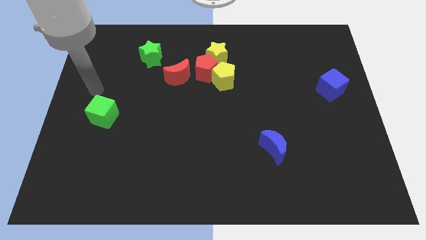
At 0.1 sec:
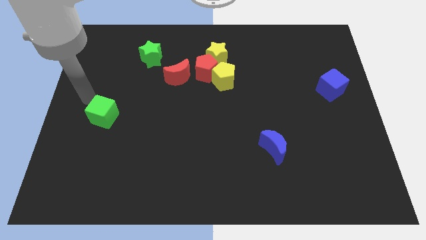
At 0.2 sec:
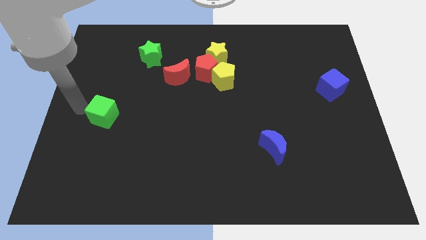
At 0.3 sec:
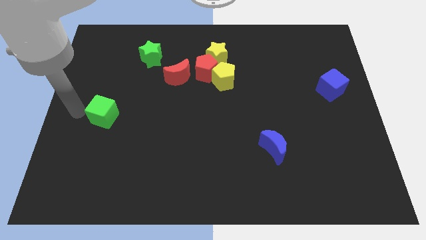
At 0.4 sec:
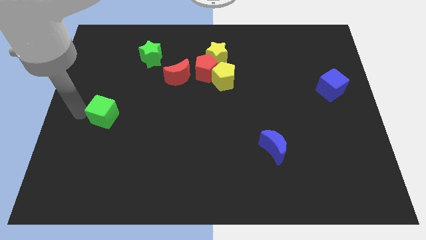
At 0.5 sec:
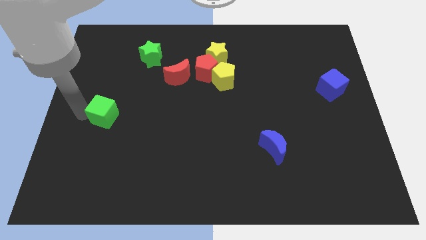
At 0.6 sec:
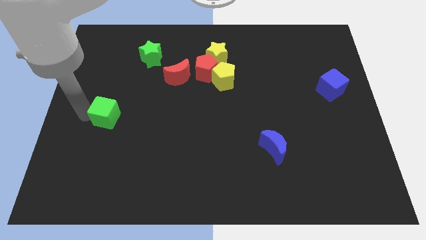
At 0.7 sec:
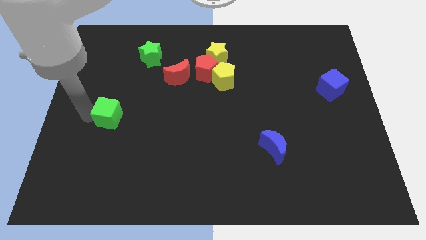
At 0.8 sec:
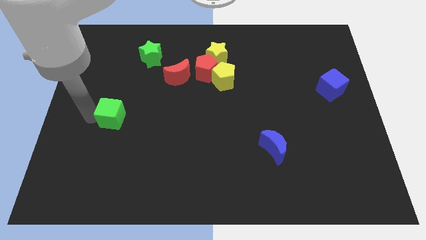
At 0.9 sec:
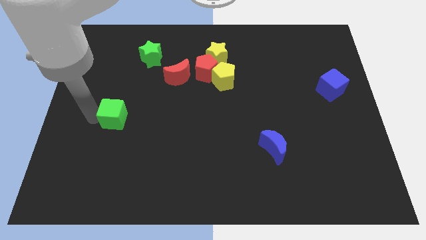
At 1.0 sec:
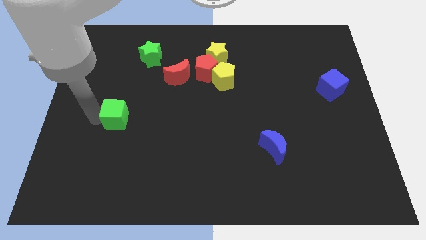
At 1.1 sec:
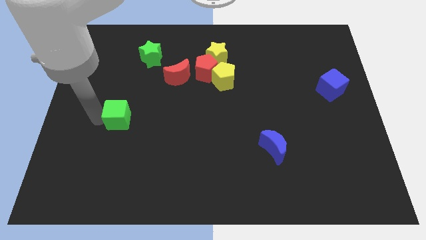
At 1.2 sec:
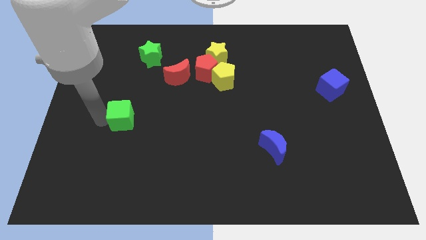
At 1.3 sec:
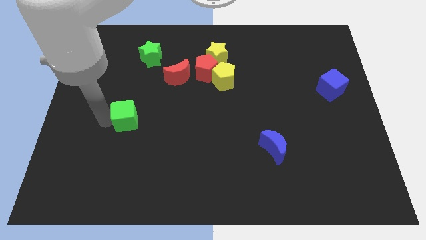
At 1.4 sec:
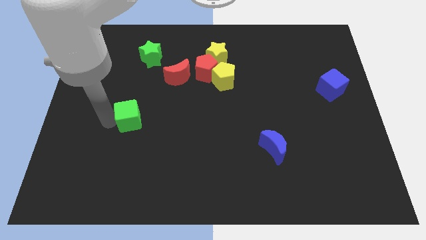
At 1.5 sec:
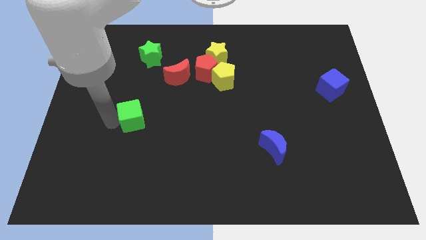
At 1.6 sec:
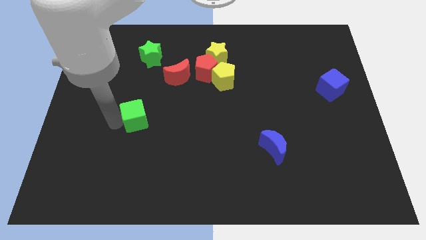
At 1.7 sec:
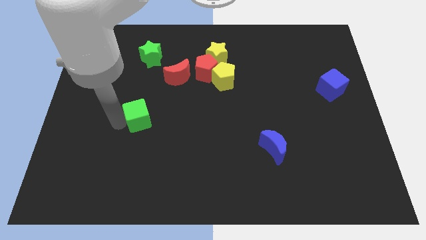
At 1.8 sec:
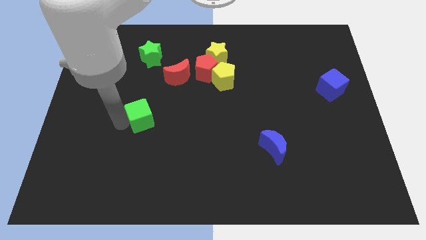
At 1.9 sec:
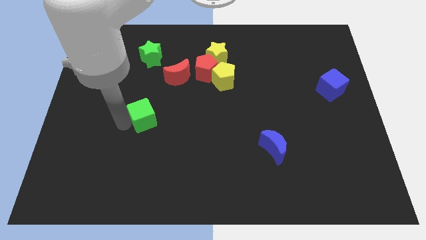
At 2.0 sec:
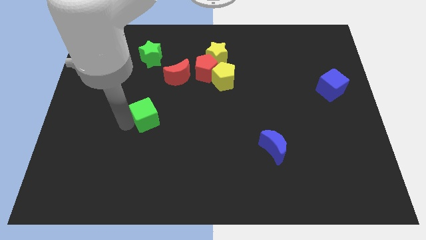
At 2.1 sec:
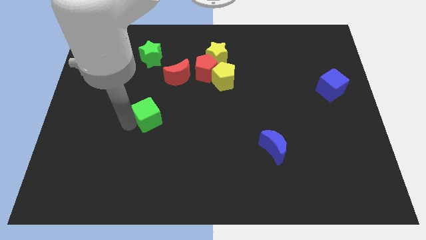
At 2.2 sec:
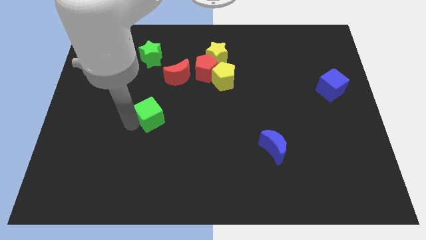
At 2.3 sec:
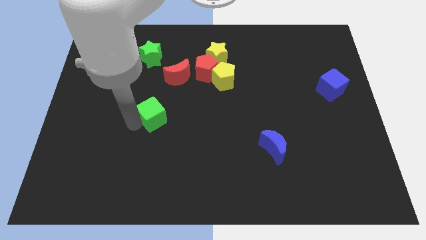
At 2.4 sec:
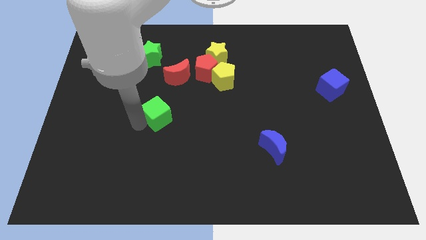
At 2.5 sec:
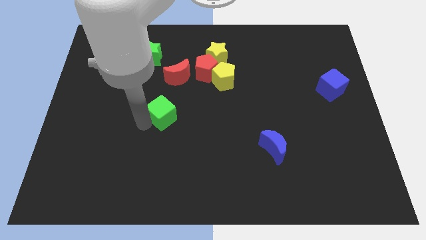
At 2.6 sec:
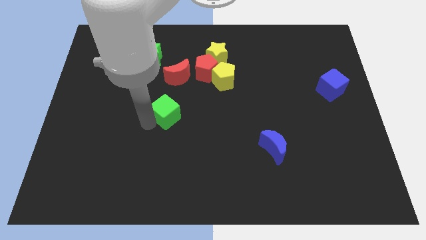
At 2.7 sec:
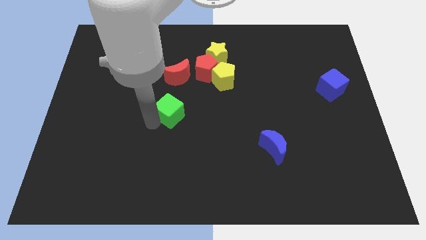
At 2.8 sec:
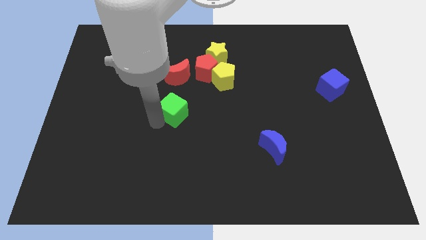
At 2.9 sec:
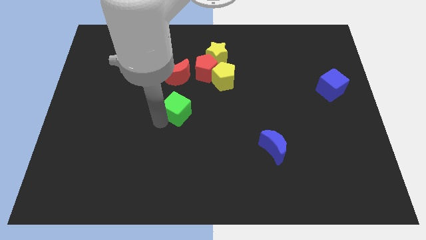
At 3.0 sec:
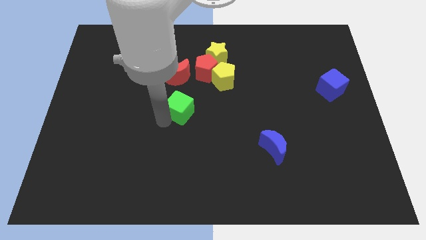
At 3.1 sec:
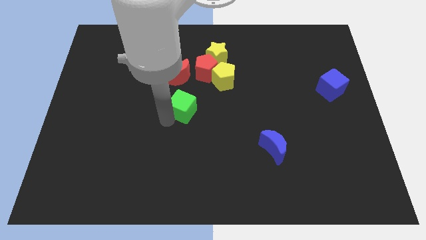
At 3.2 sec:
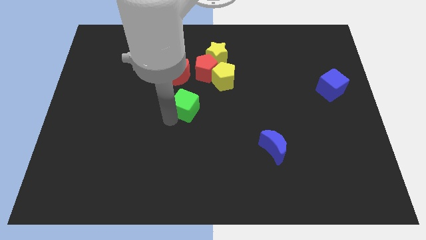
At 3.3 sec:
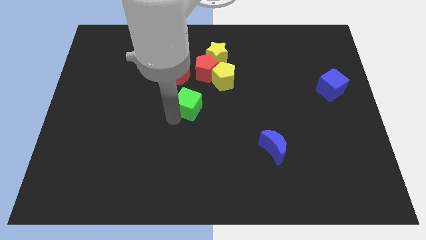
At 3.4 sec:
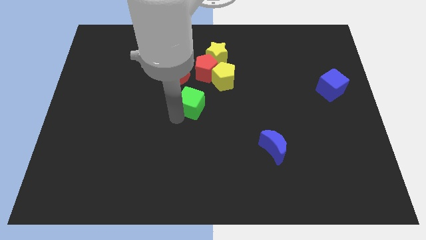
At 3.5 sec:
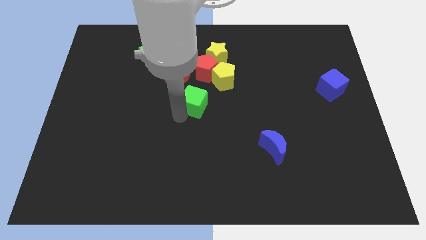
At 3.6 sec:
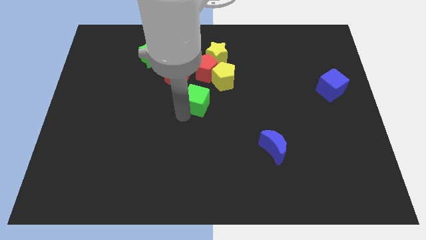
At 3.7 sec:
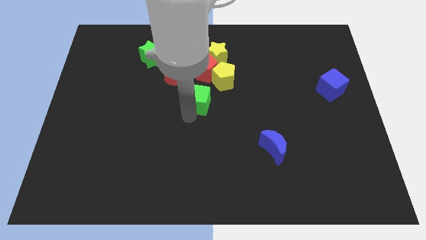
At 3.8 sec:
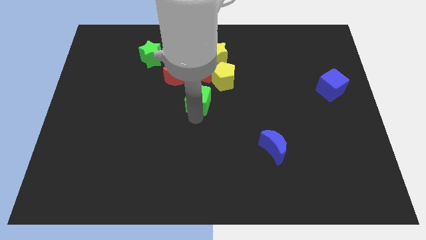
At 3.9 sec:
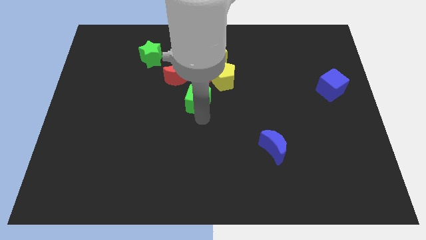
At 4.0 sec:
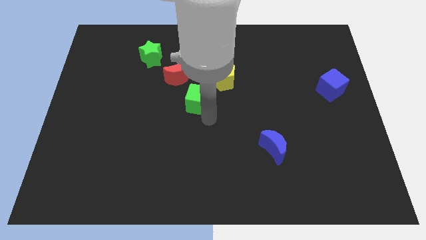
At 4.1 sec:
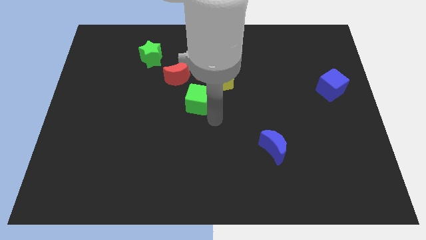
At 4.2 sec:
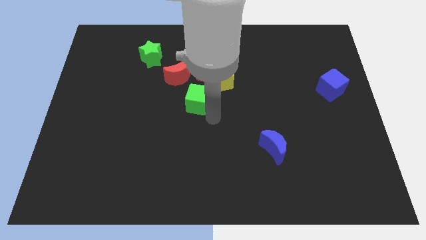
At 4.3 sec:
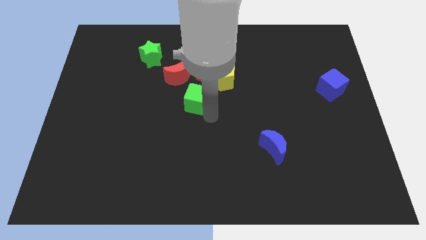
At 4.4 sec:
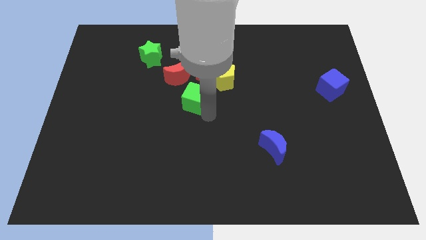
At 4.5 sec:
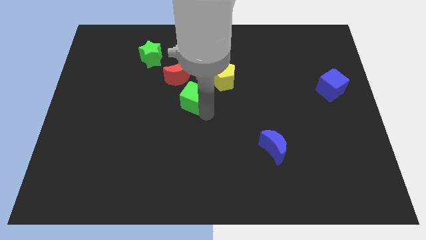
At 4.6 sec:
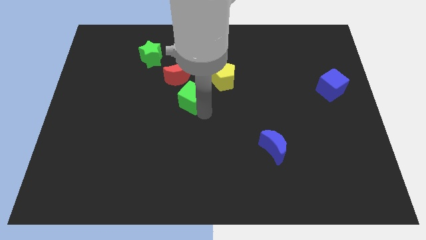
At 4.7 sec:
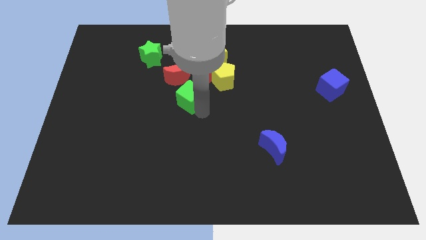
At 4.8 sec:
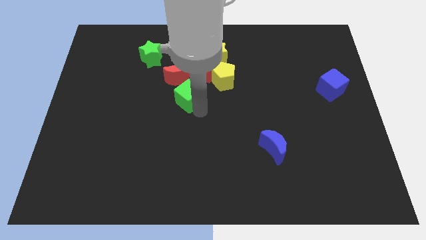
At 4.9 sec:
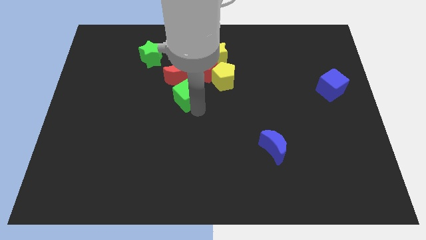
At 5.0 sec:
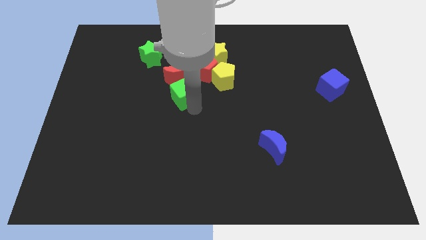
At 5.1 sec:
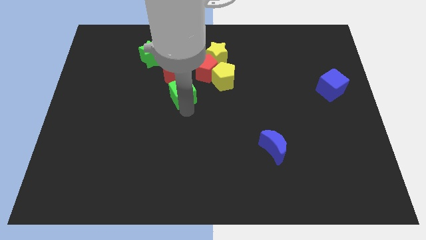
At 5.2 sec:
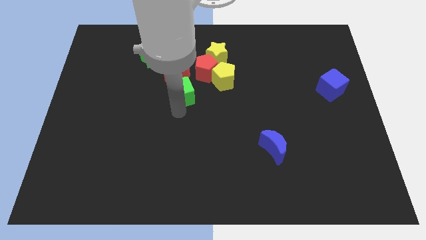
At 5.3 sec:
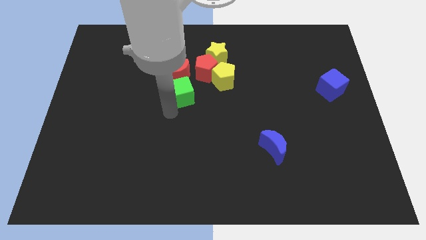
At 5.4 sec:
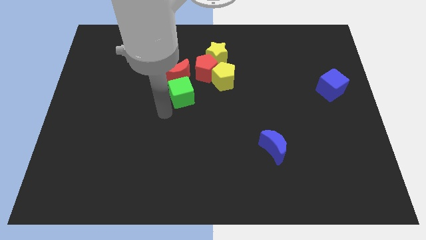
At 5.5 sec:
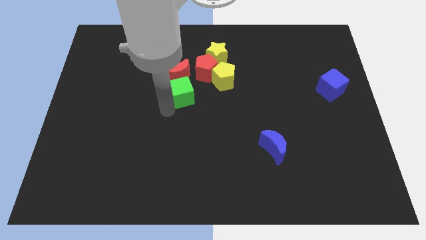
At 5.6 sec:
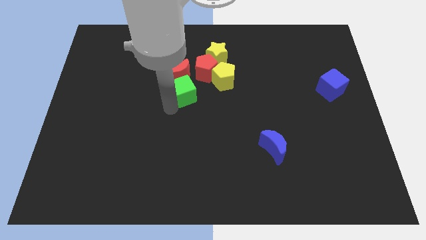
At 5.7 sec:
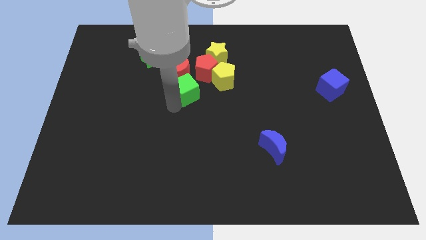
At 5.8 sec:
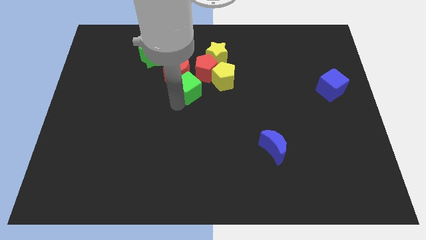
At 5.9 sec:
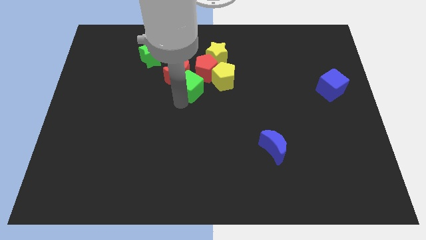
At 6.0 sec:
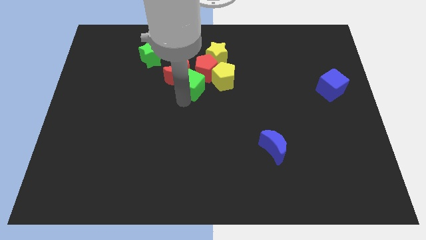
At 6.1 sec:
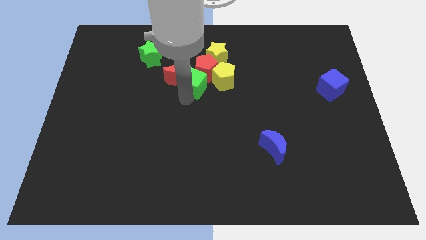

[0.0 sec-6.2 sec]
push the green cube next to the red pentagon

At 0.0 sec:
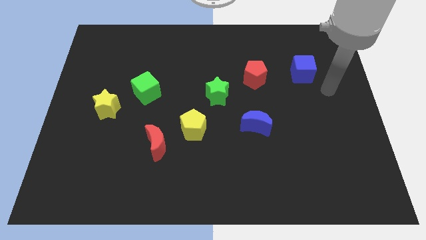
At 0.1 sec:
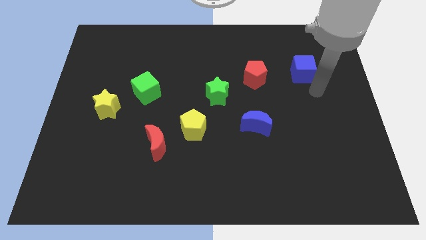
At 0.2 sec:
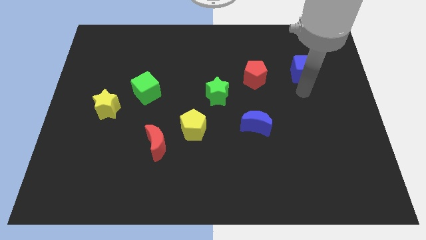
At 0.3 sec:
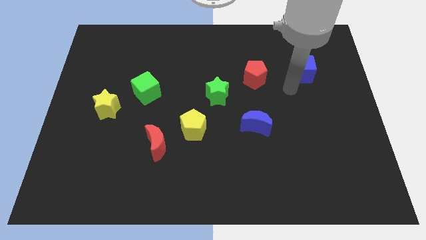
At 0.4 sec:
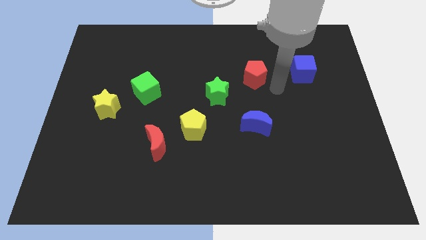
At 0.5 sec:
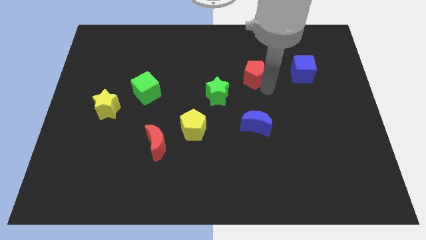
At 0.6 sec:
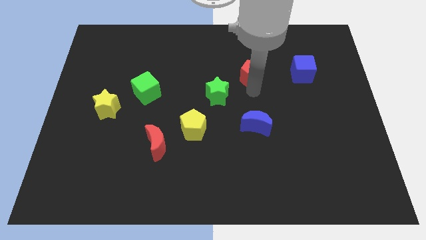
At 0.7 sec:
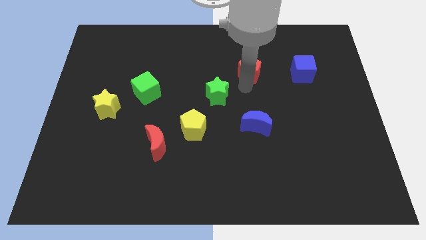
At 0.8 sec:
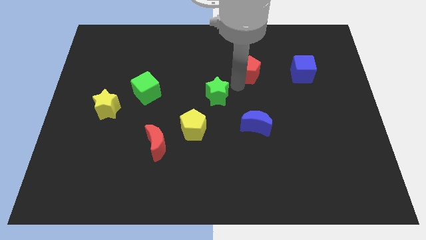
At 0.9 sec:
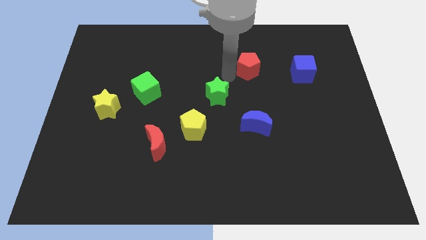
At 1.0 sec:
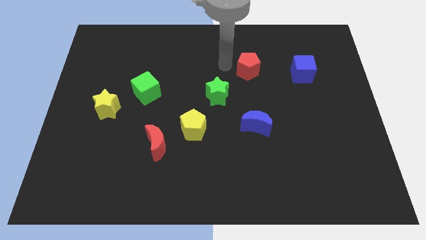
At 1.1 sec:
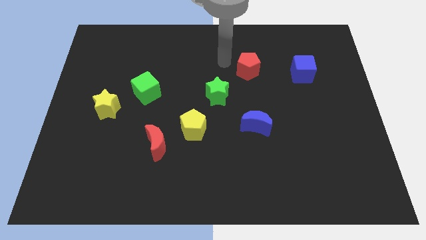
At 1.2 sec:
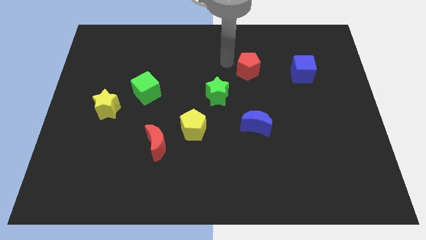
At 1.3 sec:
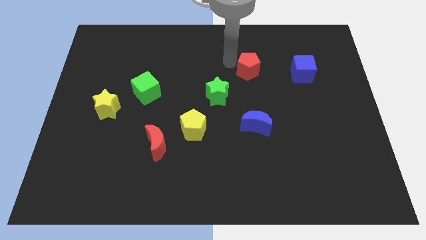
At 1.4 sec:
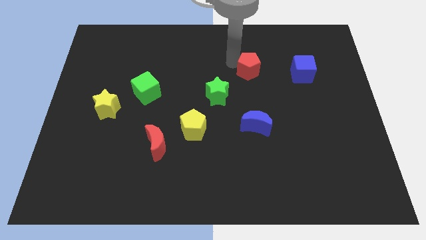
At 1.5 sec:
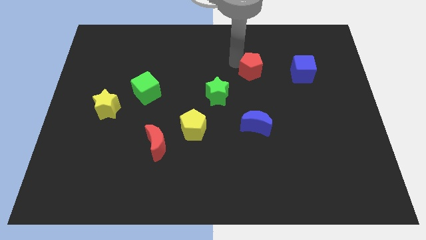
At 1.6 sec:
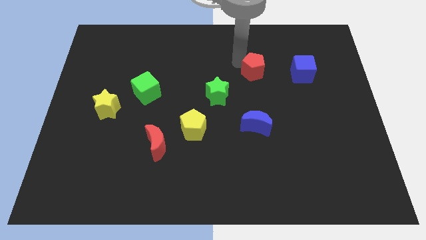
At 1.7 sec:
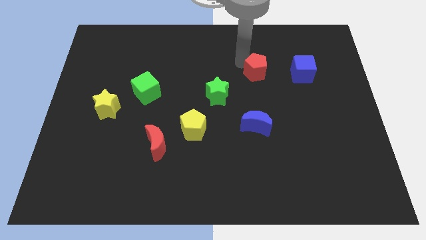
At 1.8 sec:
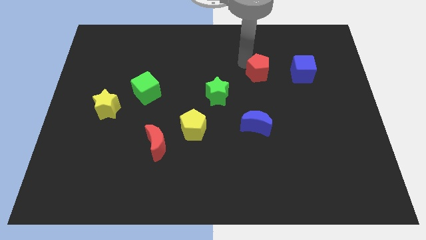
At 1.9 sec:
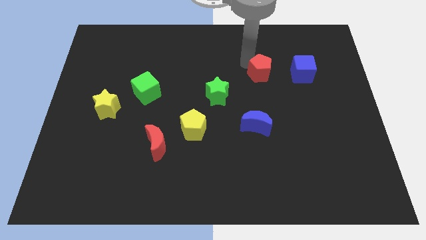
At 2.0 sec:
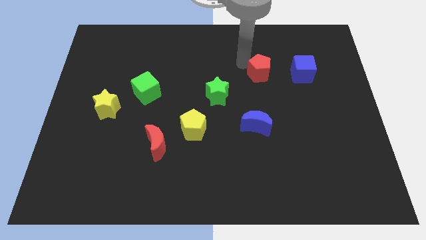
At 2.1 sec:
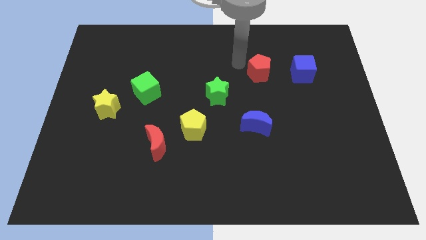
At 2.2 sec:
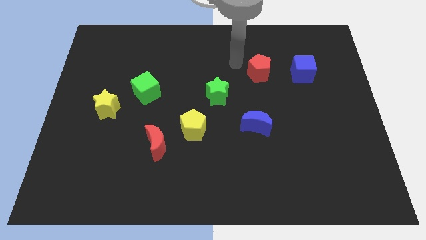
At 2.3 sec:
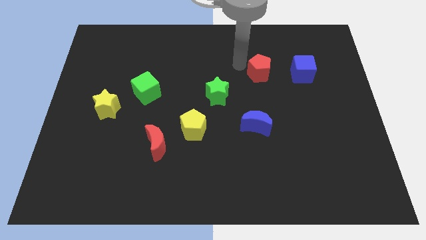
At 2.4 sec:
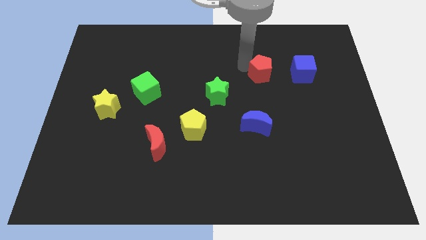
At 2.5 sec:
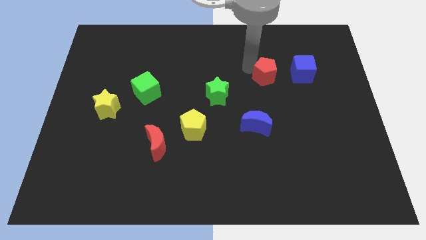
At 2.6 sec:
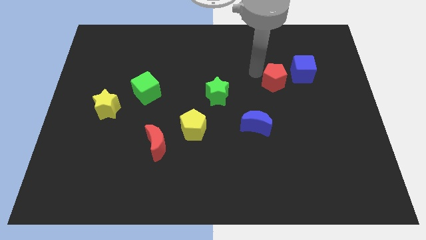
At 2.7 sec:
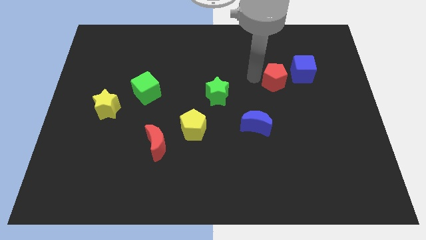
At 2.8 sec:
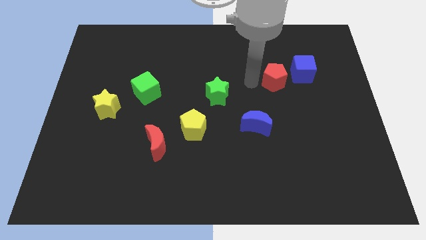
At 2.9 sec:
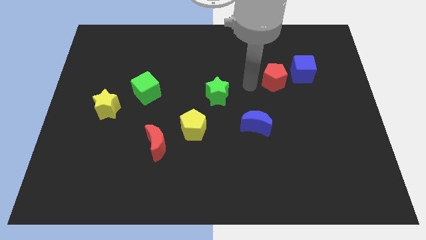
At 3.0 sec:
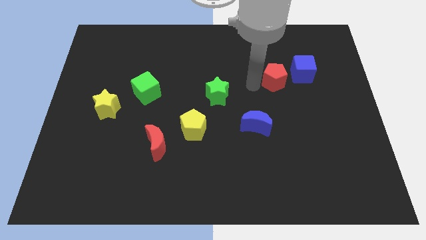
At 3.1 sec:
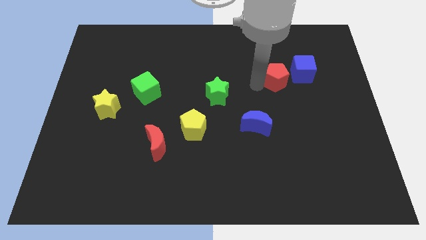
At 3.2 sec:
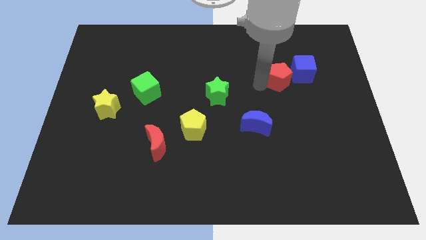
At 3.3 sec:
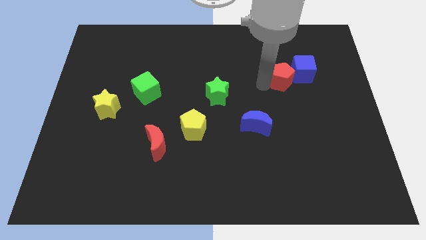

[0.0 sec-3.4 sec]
slide the red pentagon close to the blue cube
